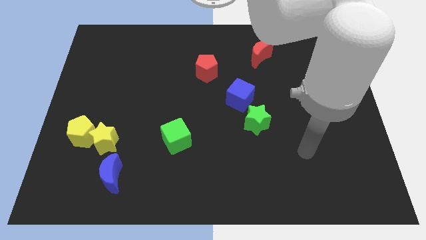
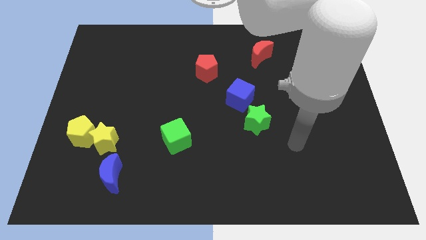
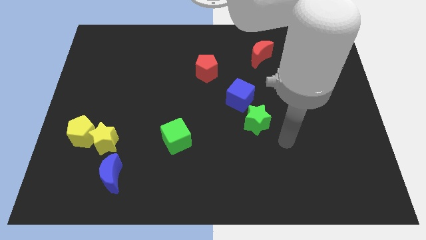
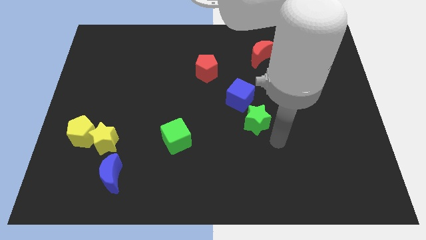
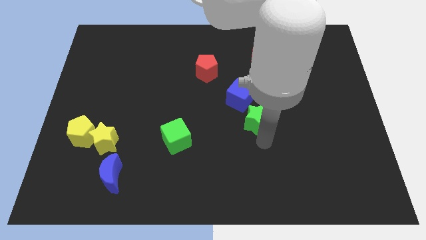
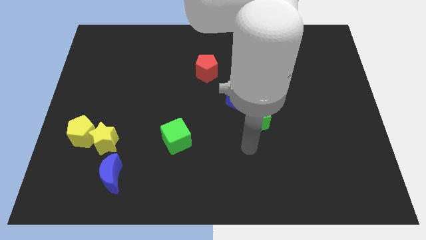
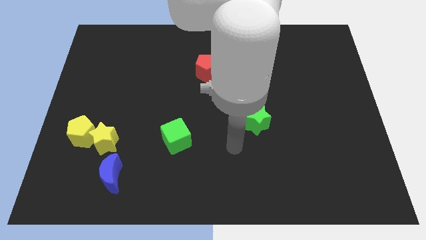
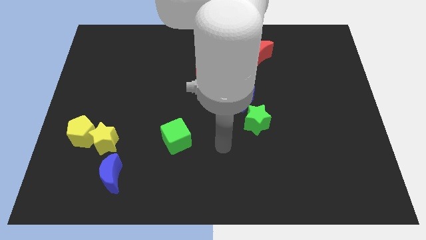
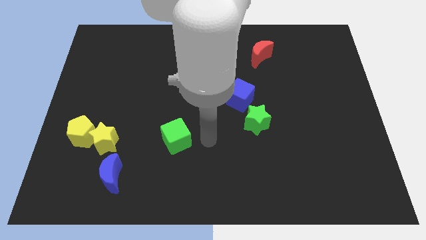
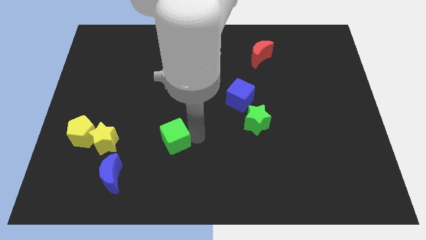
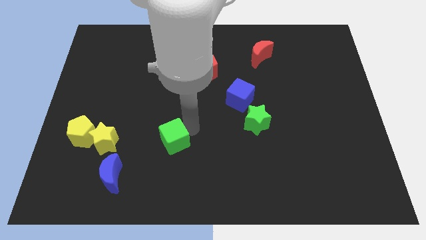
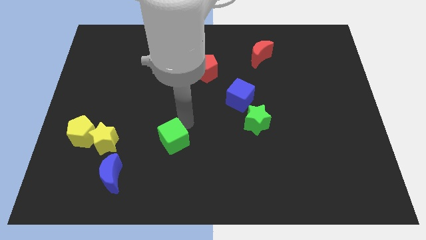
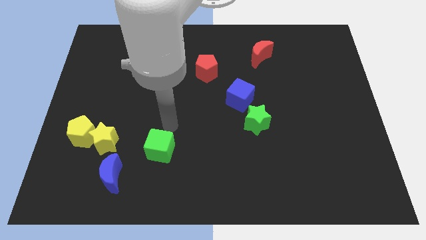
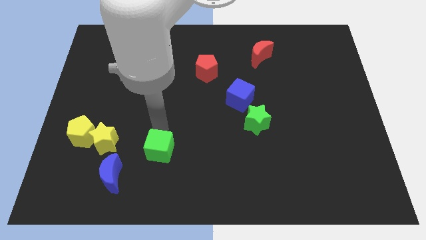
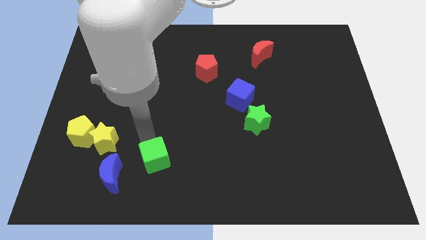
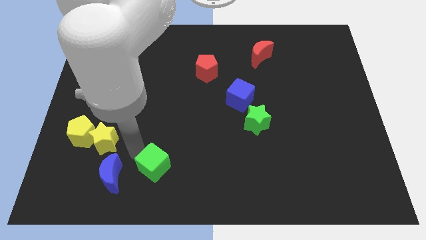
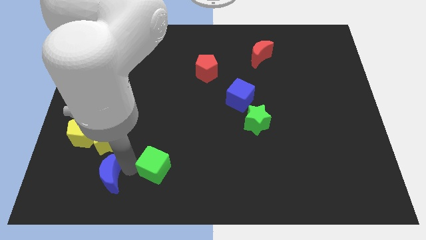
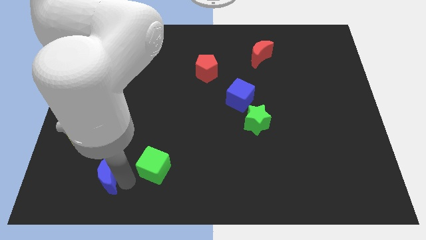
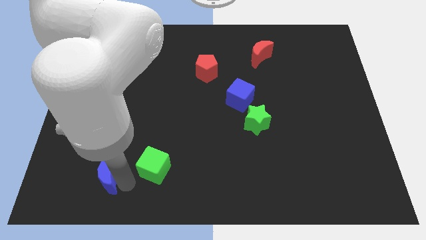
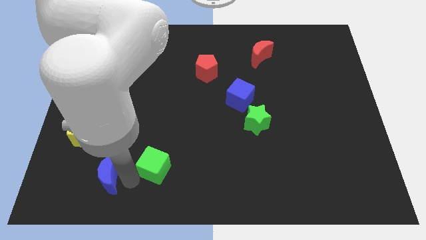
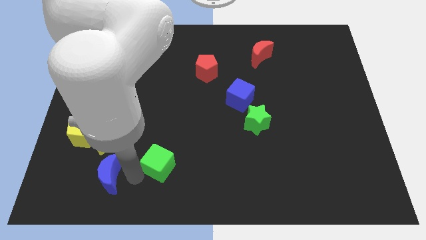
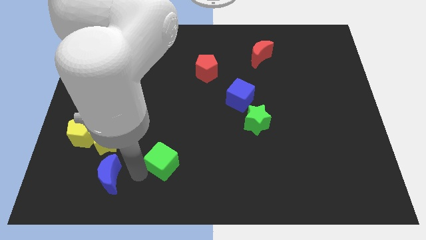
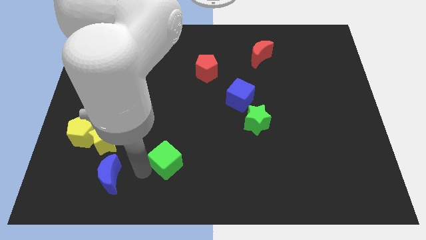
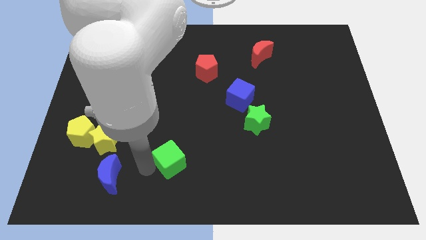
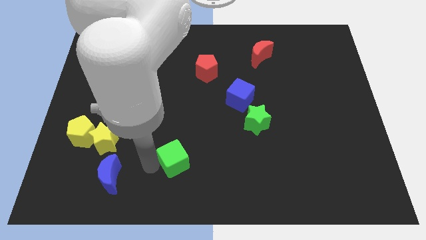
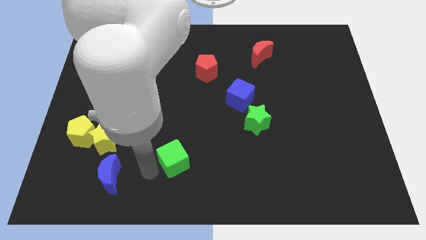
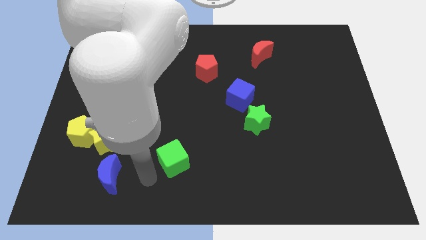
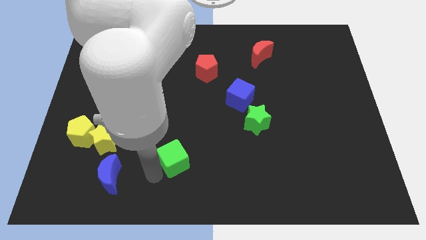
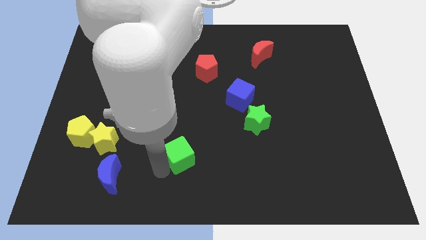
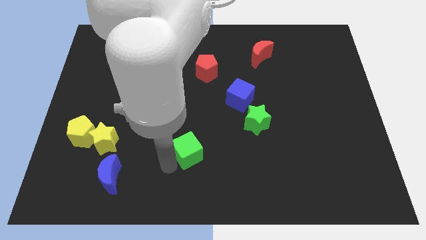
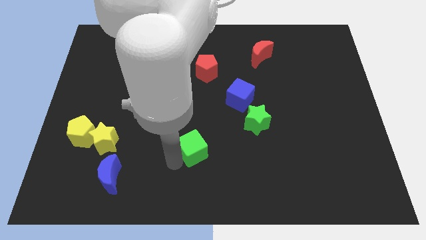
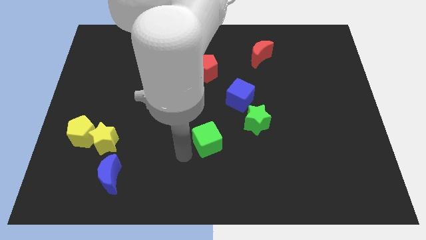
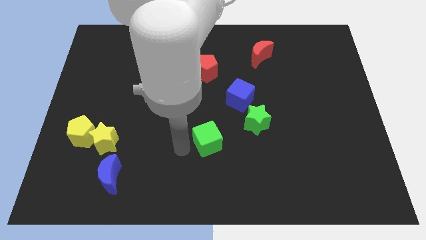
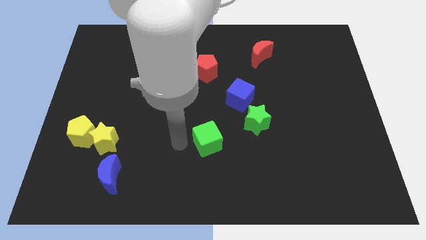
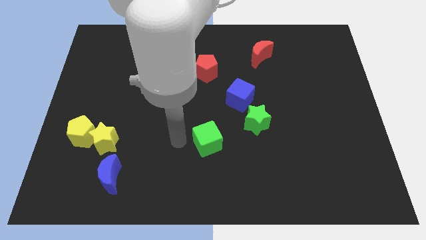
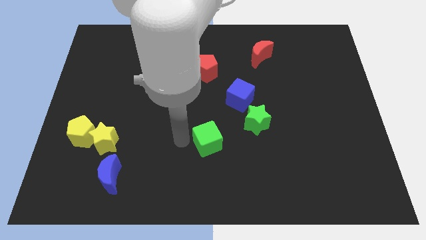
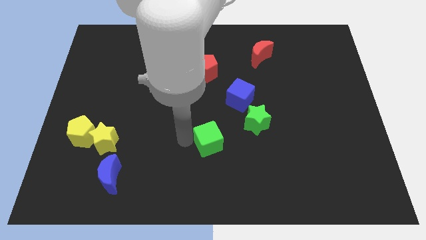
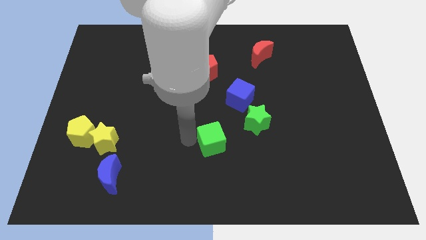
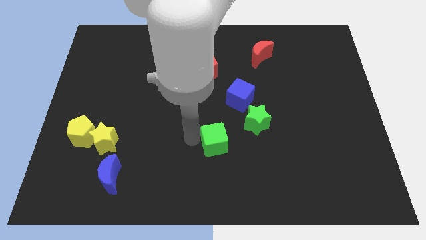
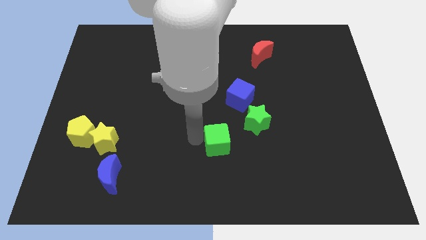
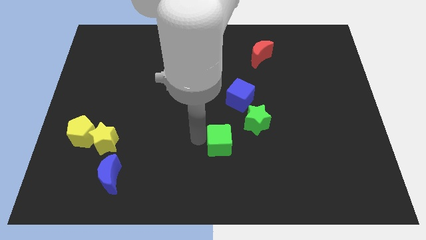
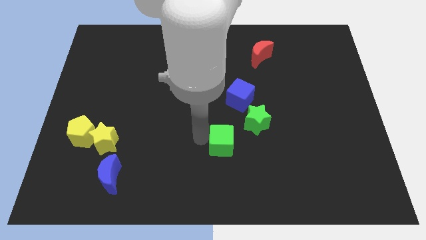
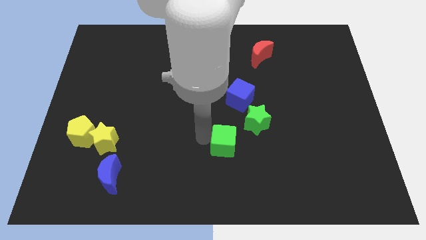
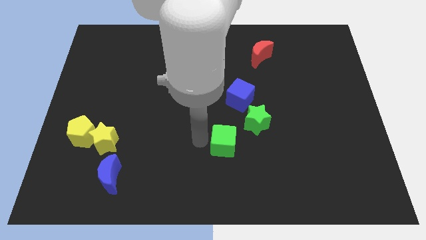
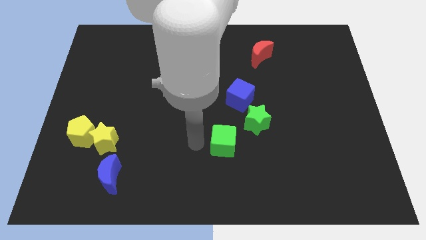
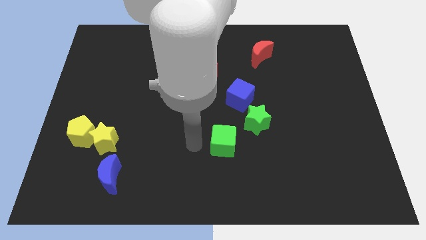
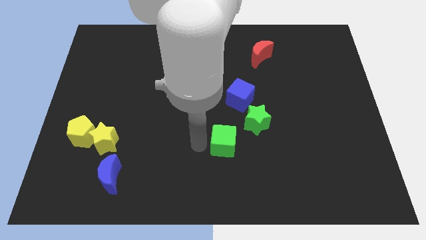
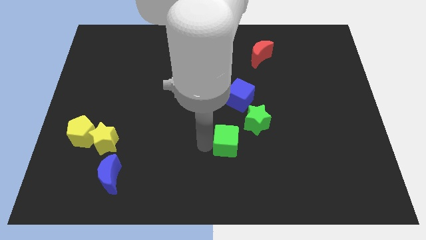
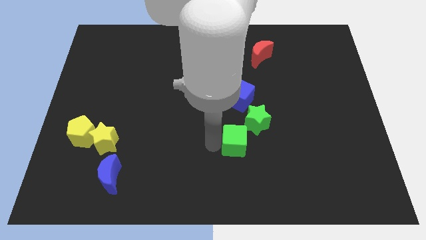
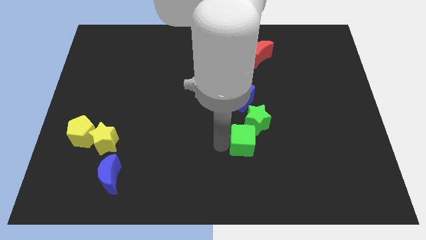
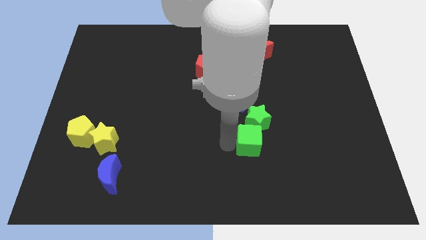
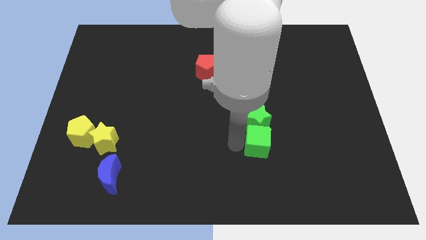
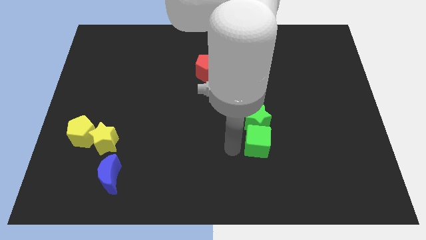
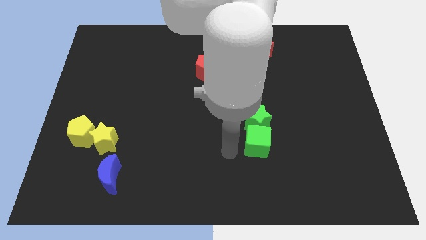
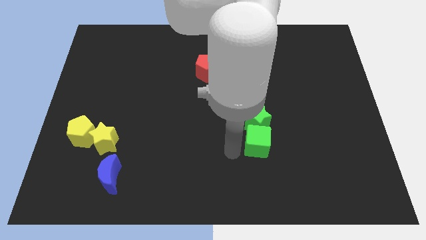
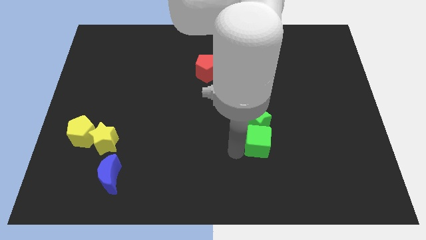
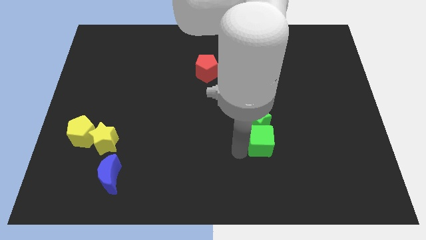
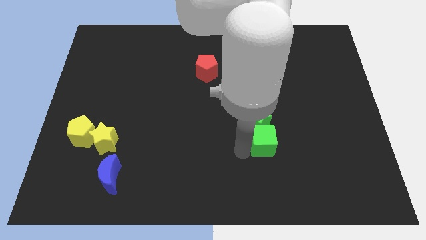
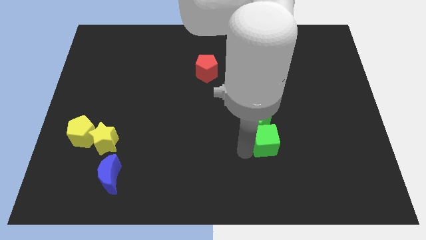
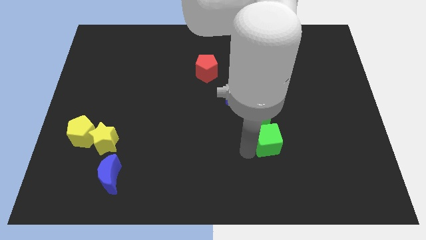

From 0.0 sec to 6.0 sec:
slide the green cube to the right

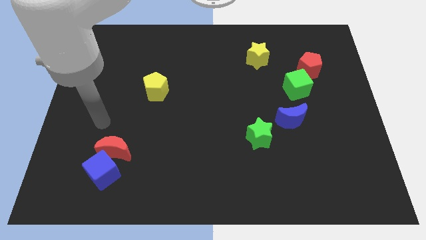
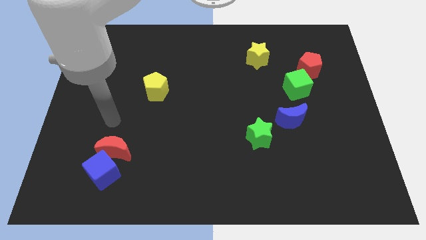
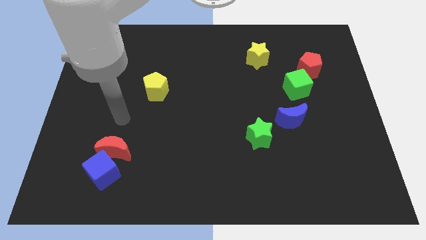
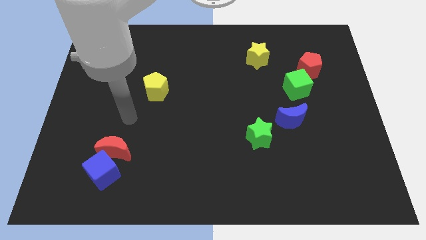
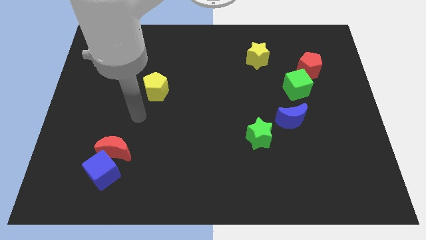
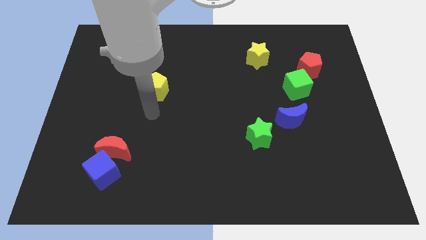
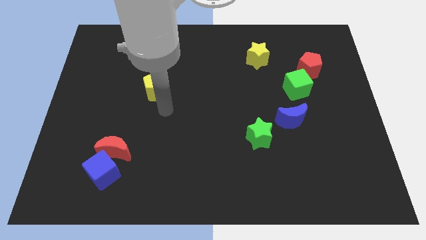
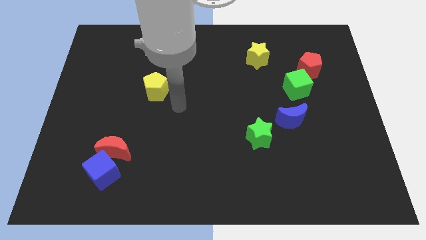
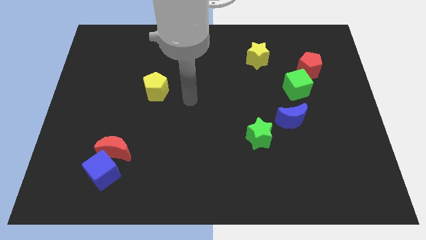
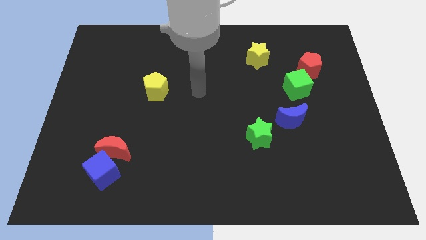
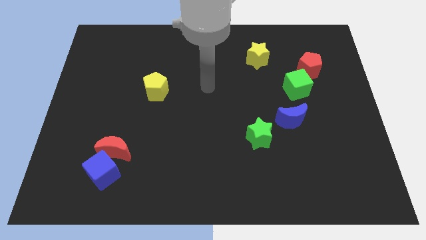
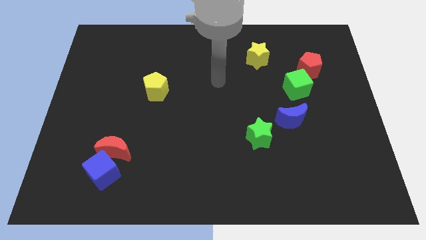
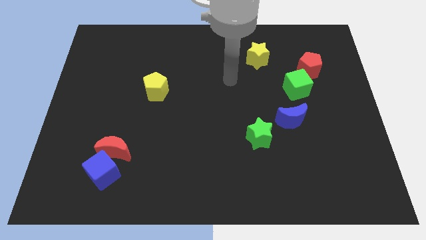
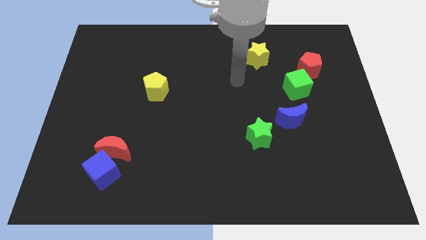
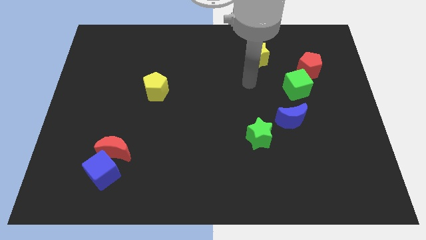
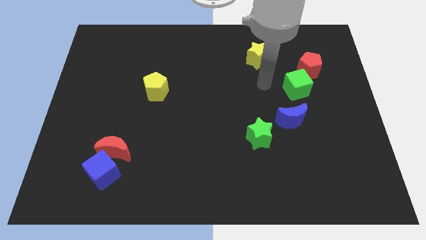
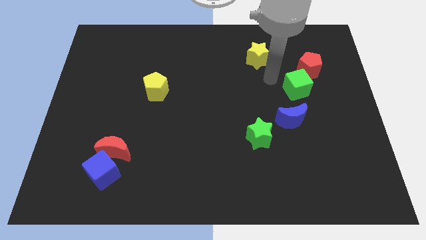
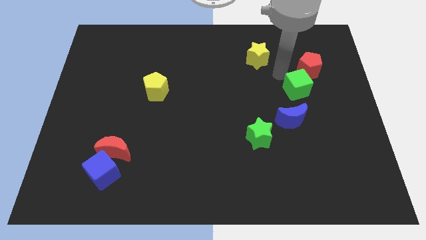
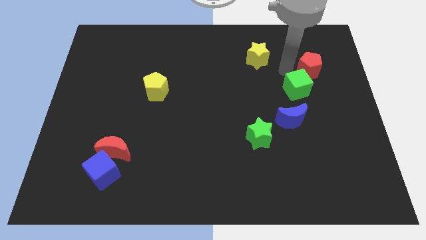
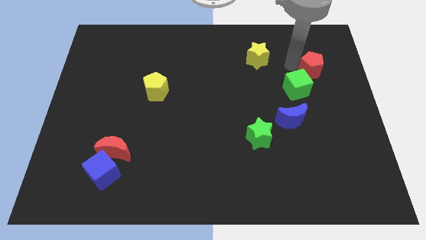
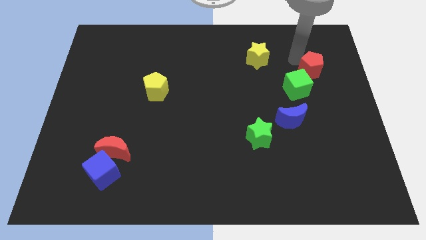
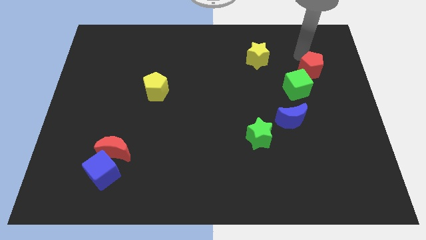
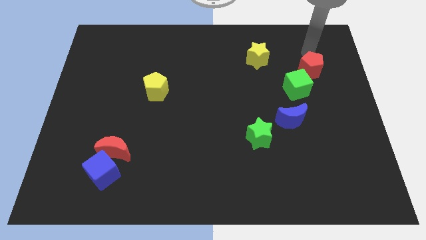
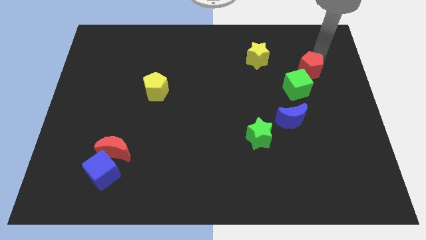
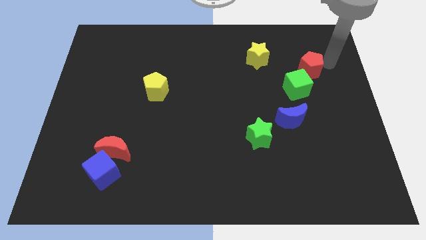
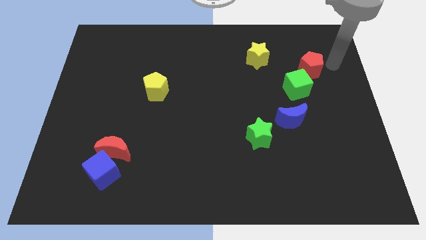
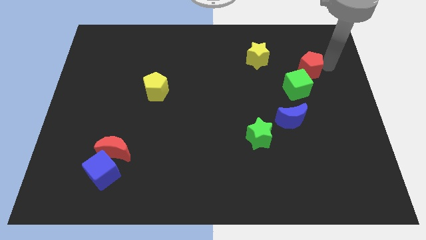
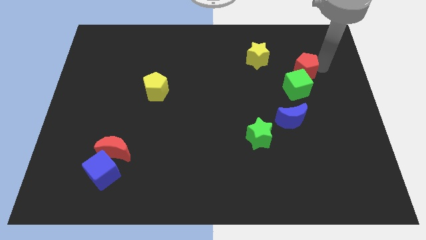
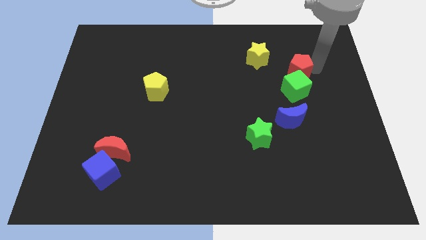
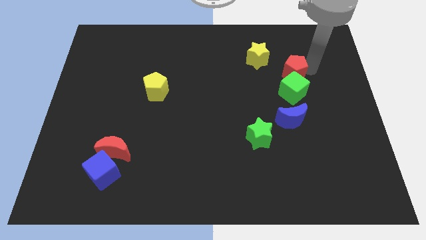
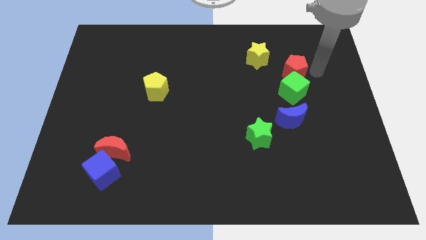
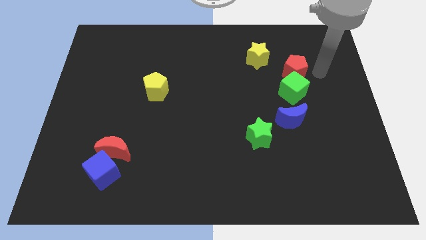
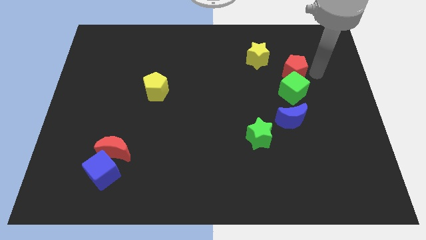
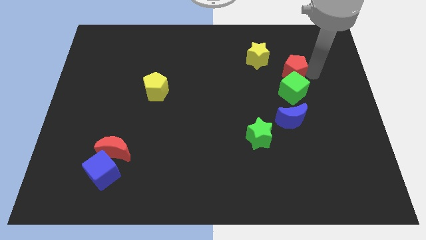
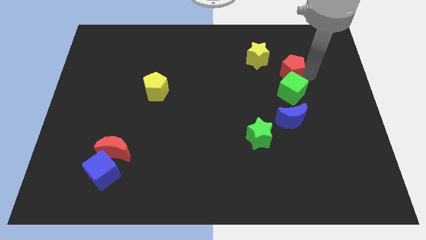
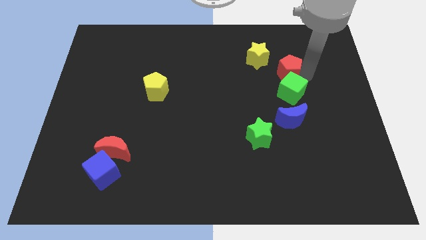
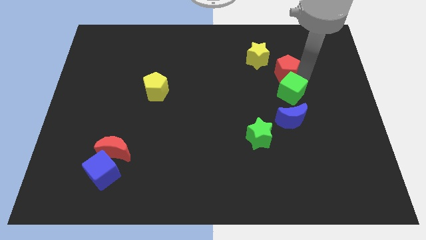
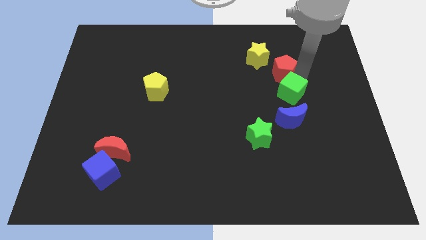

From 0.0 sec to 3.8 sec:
slide the red pentagon to the left a little
